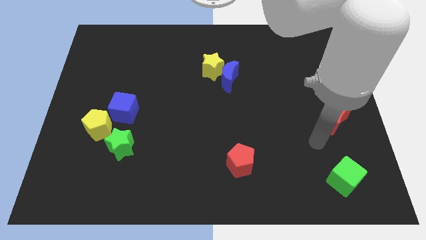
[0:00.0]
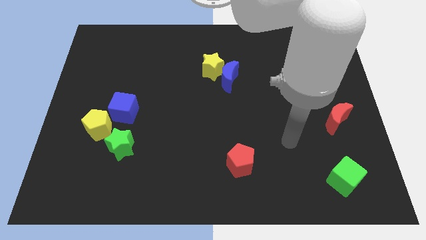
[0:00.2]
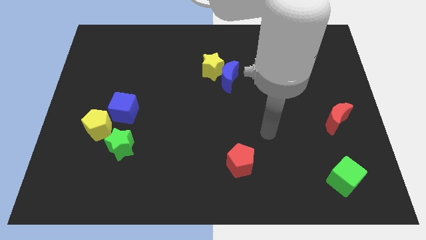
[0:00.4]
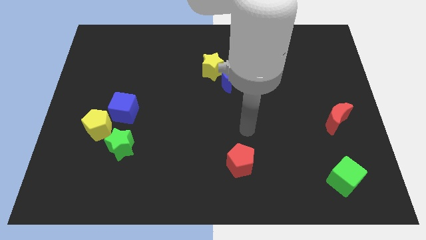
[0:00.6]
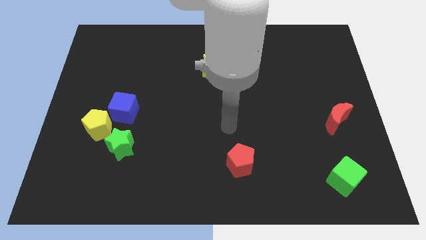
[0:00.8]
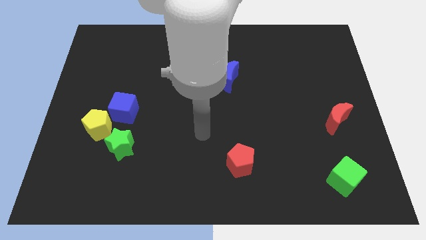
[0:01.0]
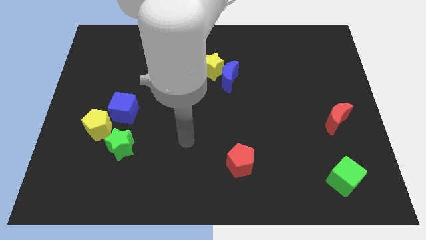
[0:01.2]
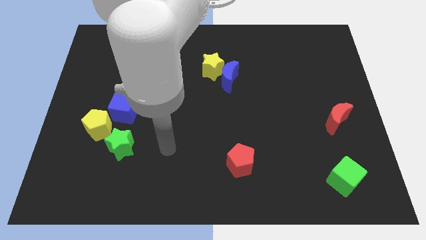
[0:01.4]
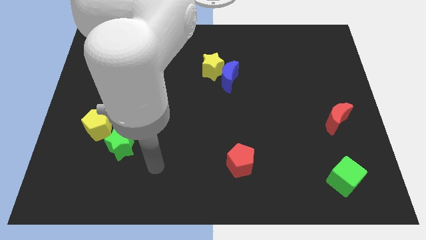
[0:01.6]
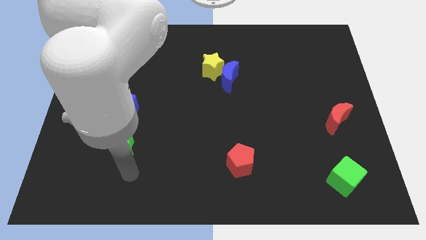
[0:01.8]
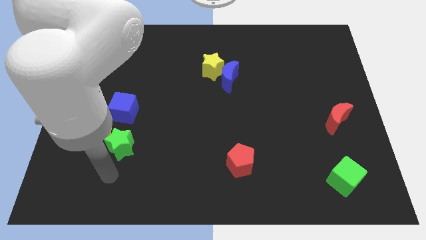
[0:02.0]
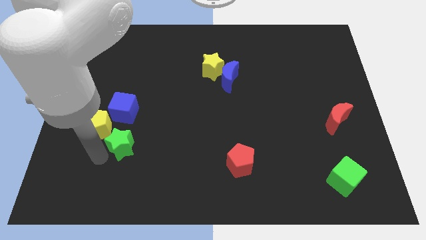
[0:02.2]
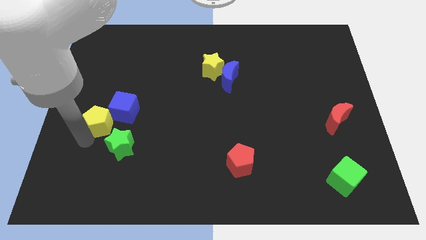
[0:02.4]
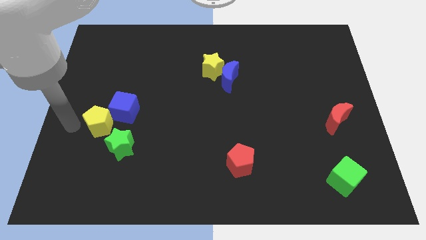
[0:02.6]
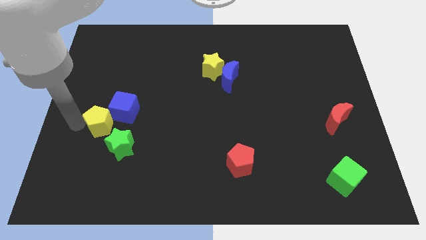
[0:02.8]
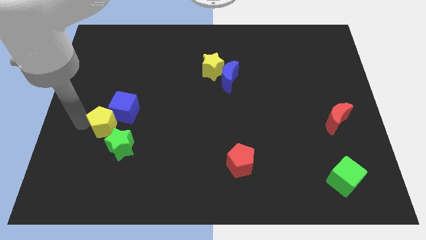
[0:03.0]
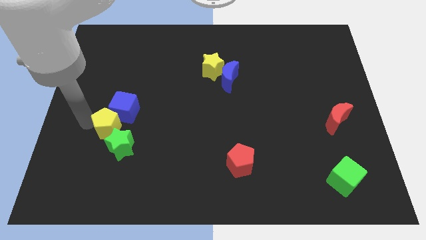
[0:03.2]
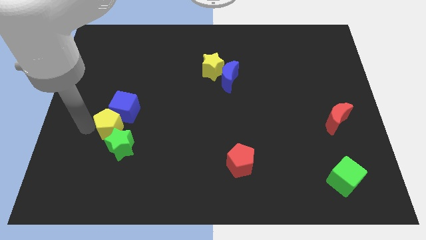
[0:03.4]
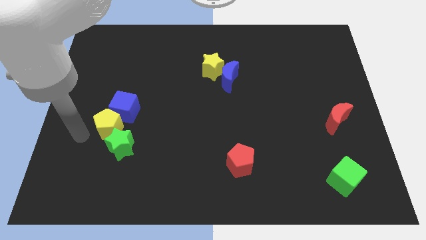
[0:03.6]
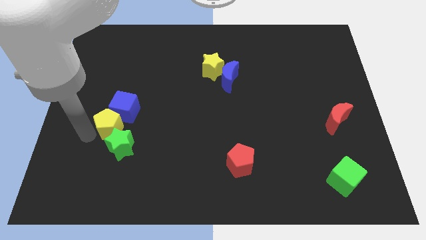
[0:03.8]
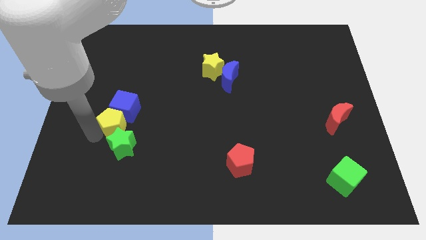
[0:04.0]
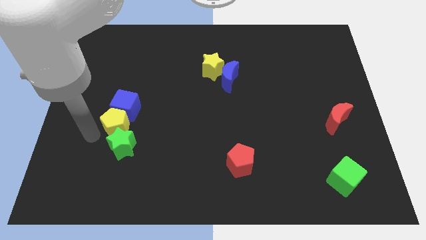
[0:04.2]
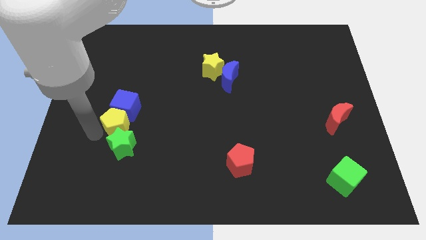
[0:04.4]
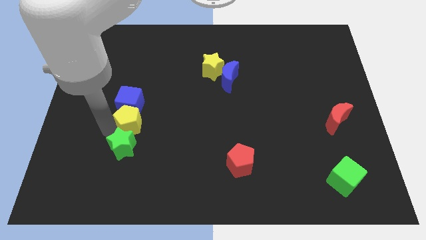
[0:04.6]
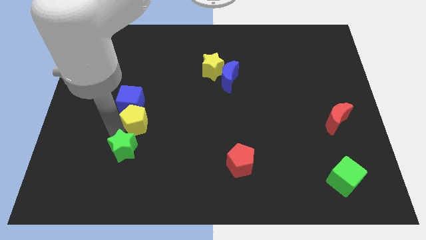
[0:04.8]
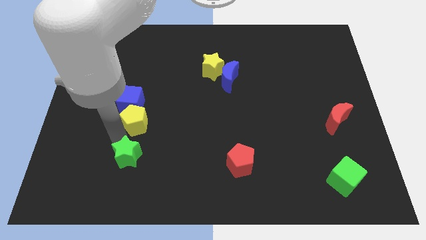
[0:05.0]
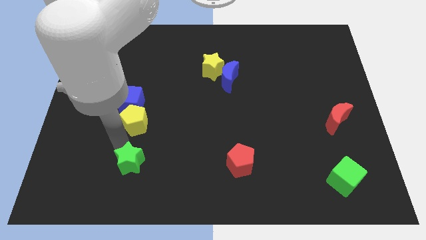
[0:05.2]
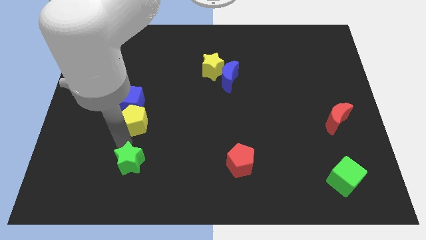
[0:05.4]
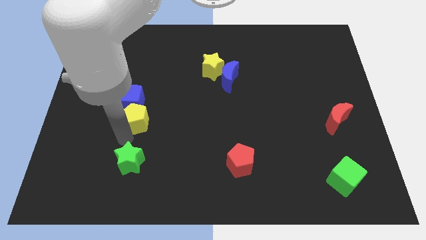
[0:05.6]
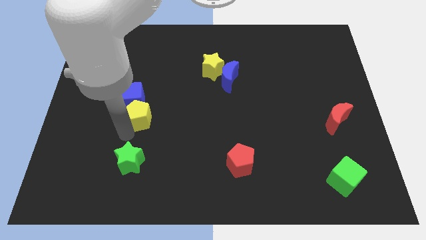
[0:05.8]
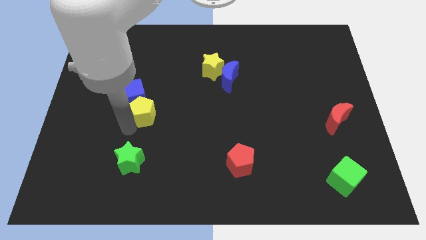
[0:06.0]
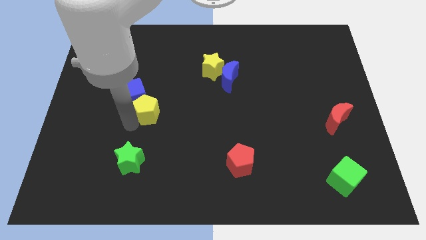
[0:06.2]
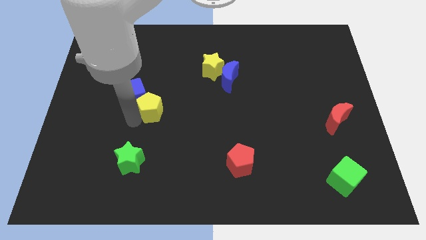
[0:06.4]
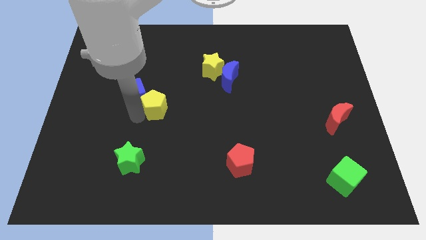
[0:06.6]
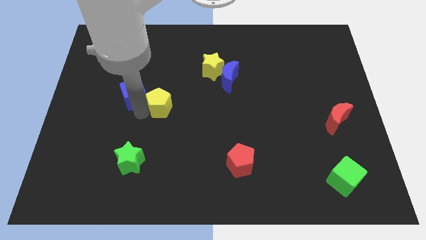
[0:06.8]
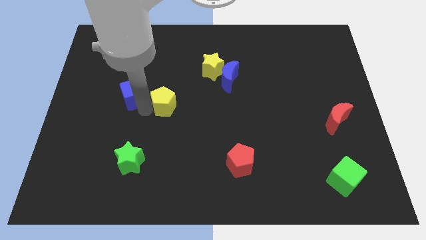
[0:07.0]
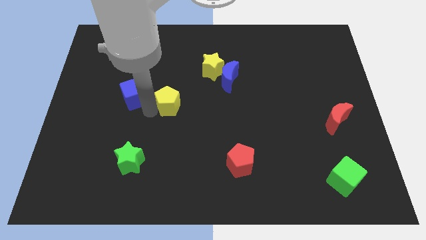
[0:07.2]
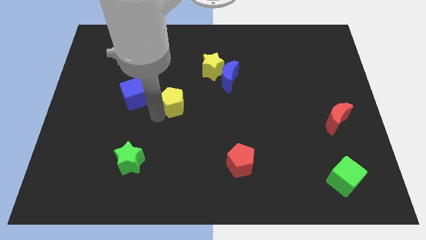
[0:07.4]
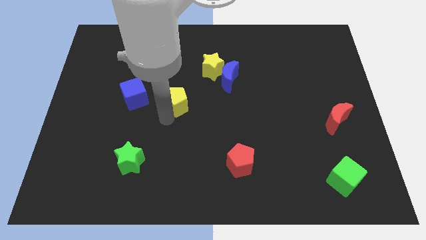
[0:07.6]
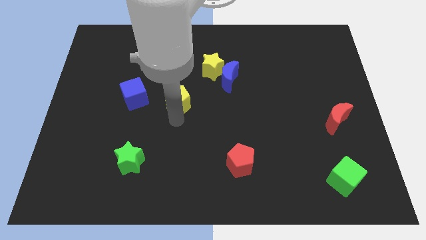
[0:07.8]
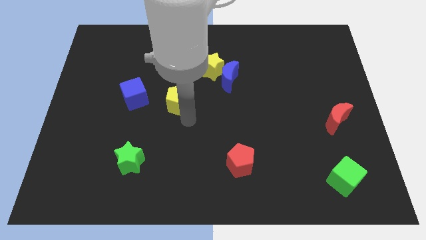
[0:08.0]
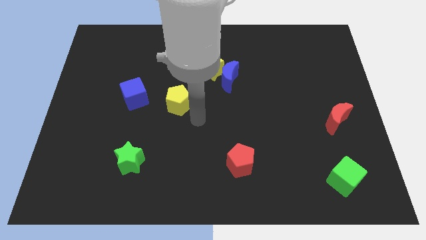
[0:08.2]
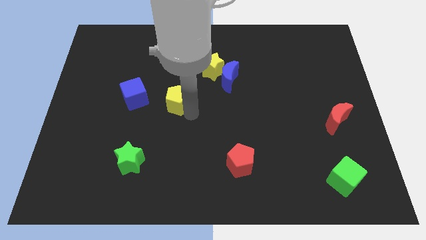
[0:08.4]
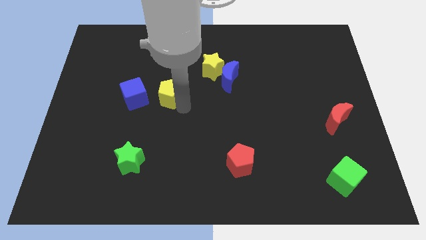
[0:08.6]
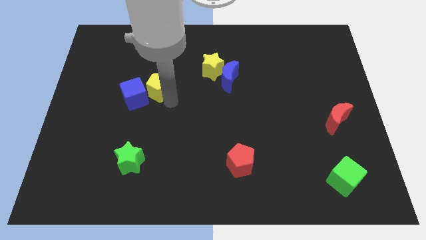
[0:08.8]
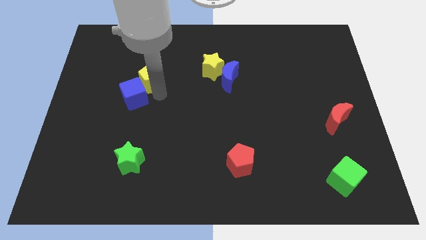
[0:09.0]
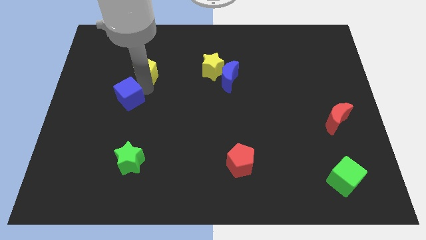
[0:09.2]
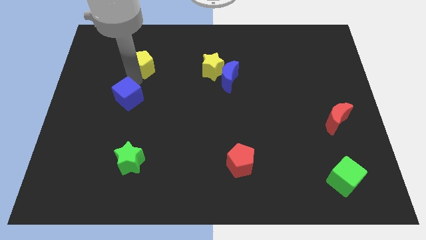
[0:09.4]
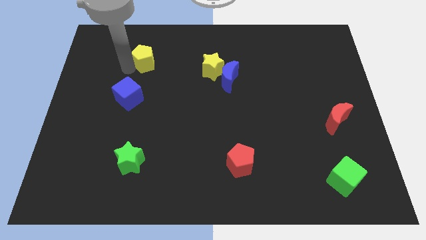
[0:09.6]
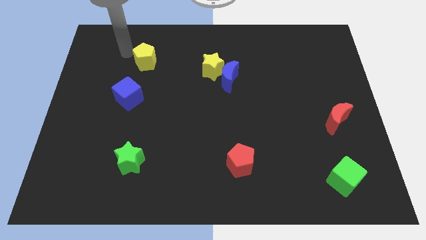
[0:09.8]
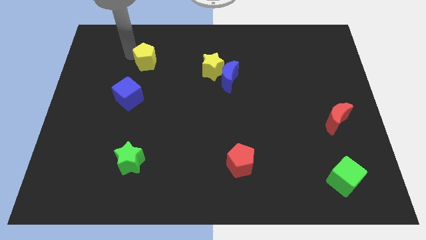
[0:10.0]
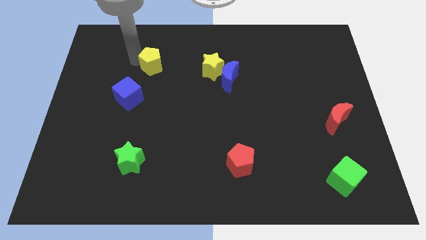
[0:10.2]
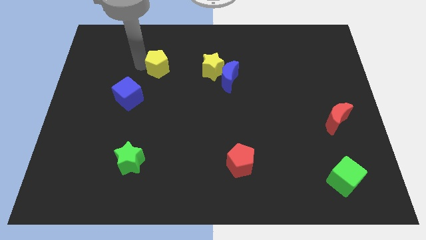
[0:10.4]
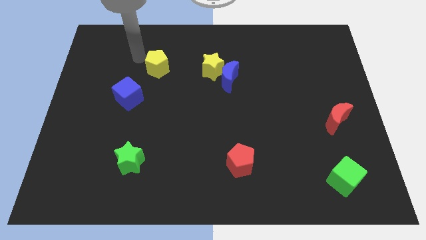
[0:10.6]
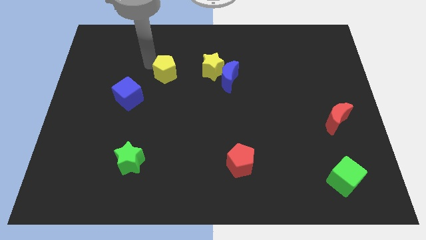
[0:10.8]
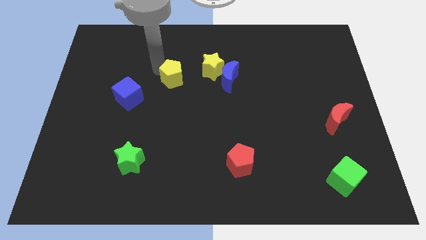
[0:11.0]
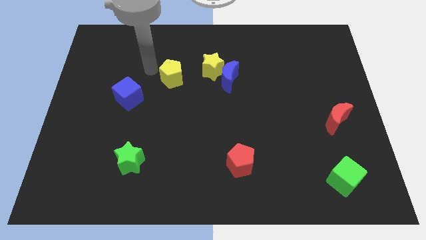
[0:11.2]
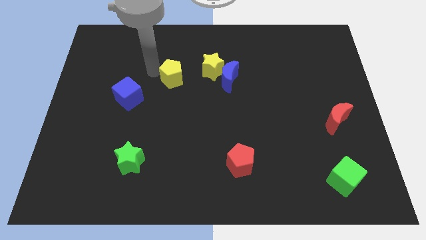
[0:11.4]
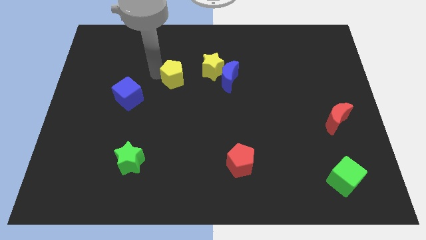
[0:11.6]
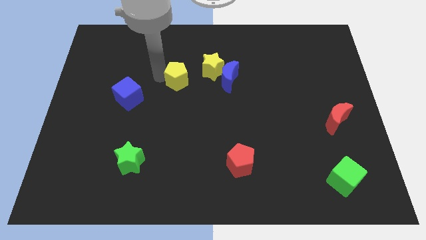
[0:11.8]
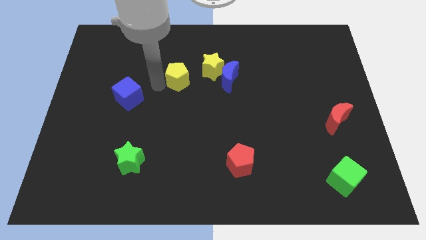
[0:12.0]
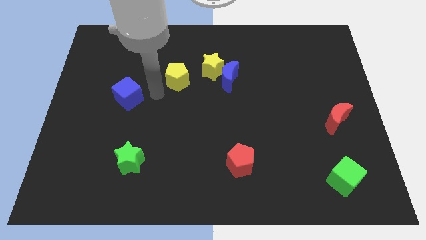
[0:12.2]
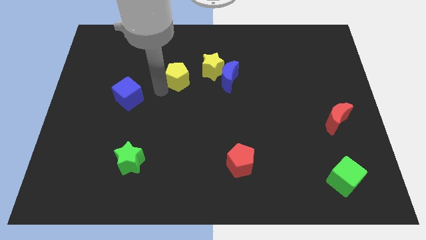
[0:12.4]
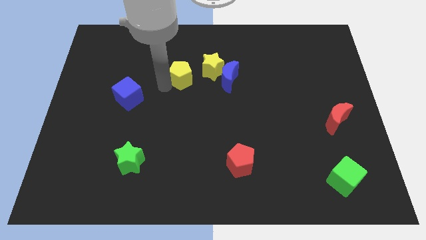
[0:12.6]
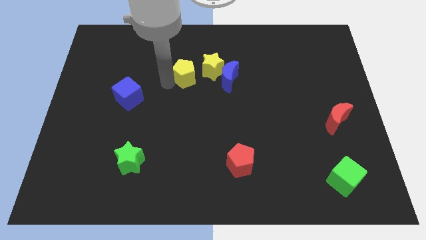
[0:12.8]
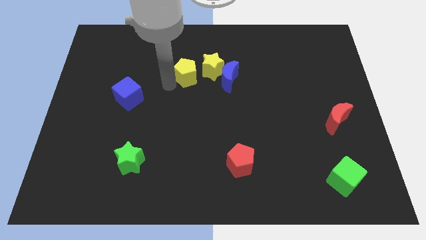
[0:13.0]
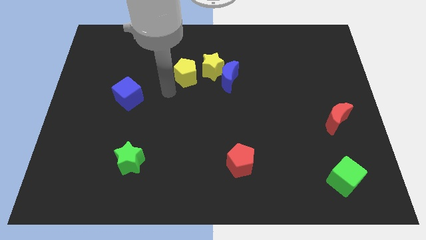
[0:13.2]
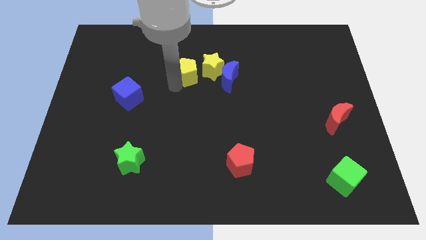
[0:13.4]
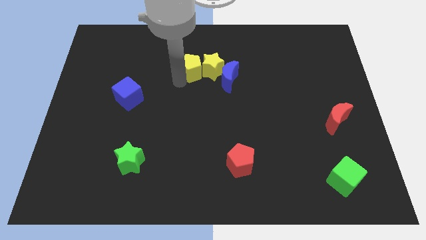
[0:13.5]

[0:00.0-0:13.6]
put the yellow pentagon to the top left of the blue moon
